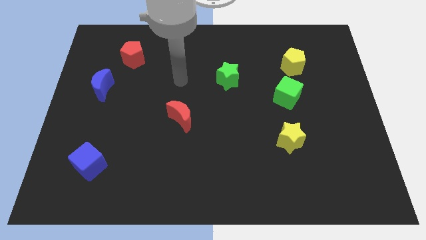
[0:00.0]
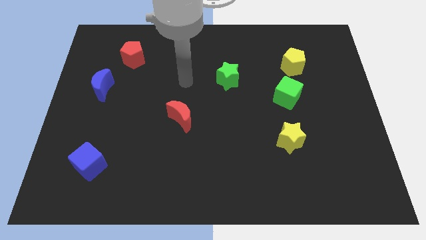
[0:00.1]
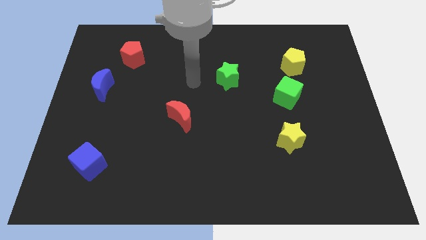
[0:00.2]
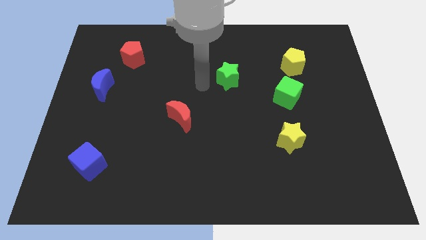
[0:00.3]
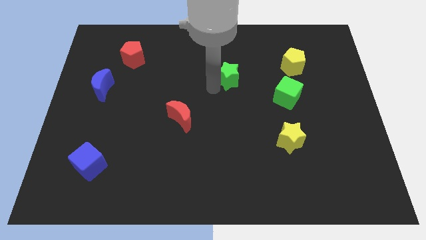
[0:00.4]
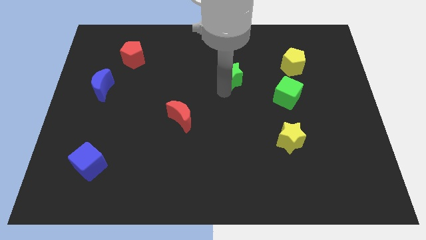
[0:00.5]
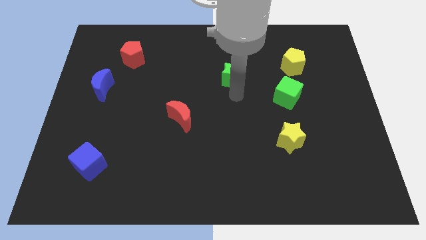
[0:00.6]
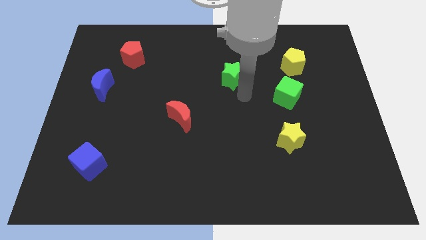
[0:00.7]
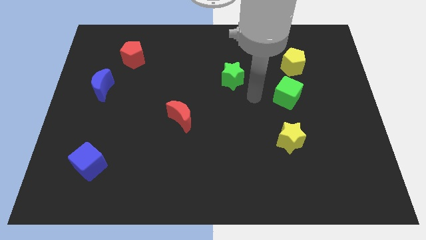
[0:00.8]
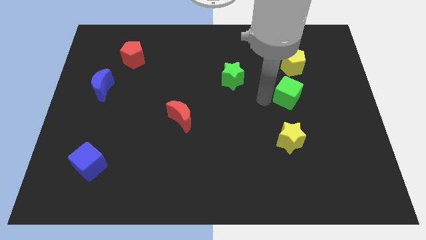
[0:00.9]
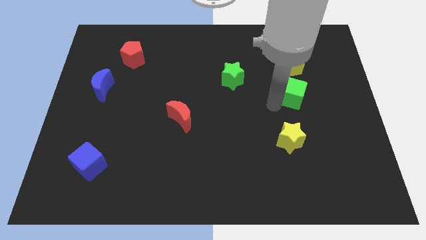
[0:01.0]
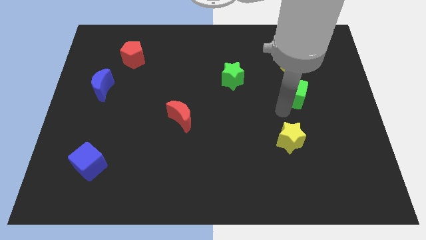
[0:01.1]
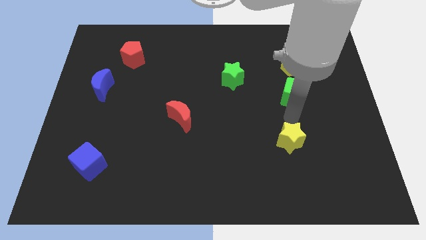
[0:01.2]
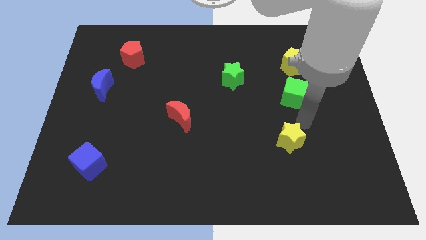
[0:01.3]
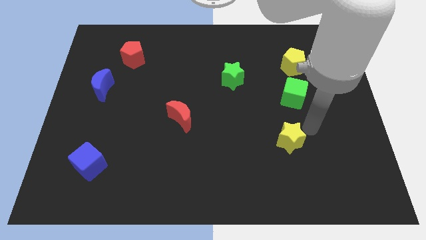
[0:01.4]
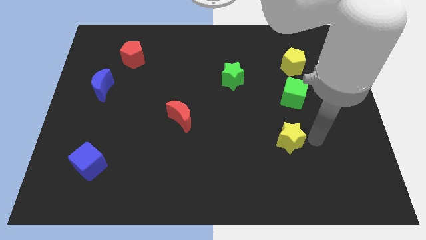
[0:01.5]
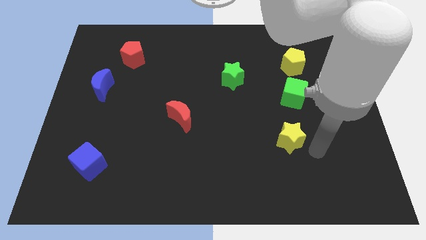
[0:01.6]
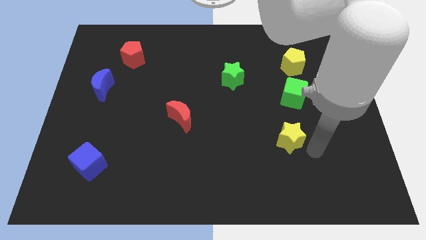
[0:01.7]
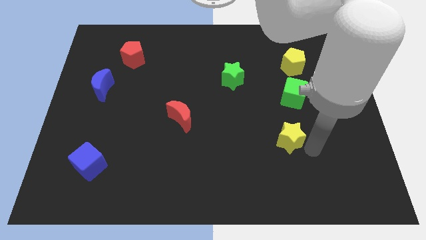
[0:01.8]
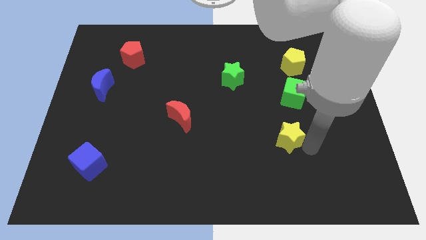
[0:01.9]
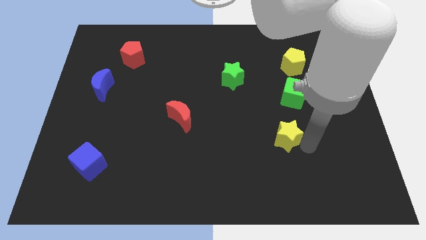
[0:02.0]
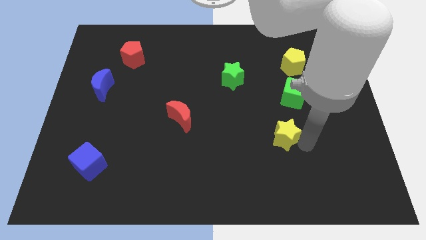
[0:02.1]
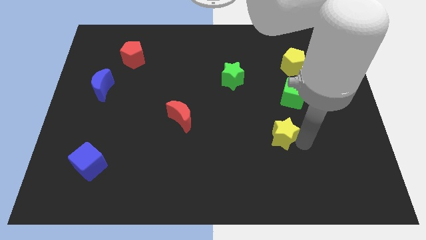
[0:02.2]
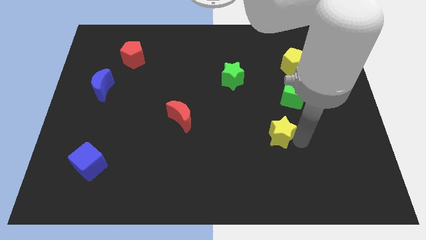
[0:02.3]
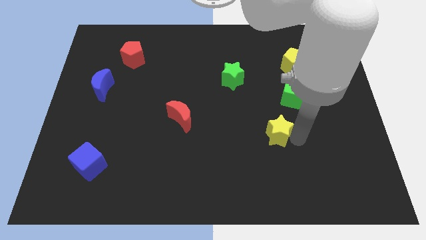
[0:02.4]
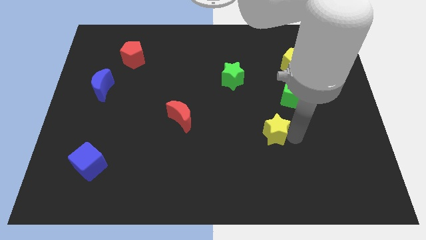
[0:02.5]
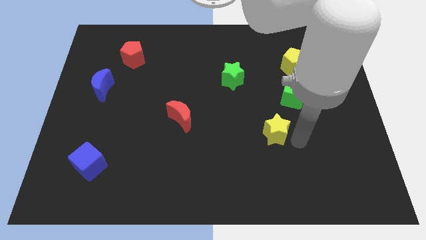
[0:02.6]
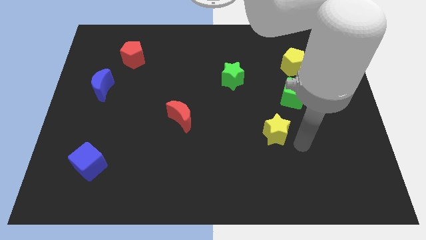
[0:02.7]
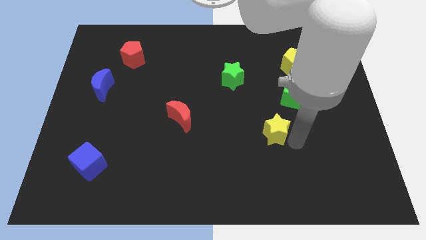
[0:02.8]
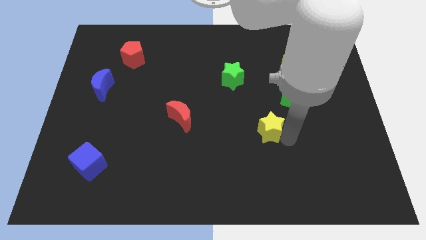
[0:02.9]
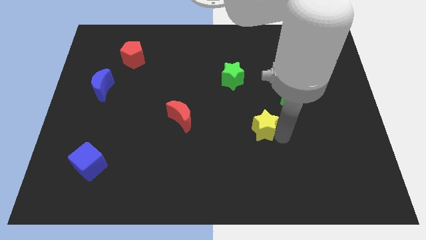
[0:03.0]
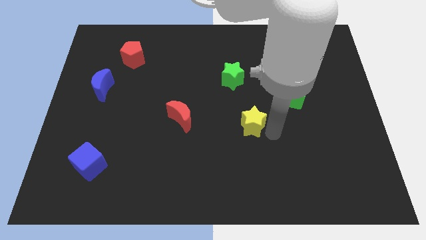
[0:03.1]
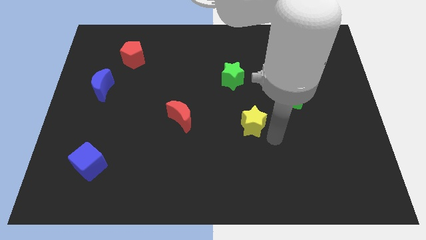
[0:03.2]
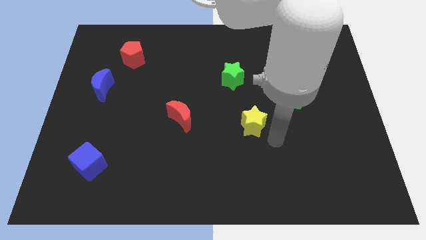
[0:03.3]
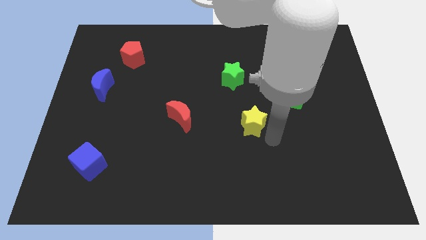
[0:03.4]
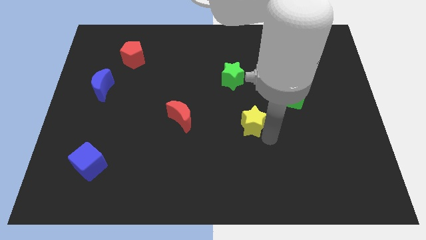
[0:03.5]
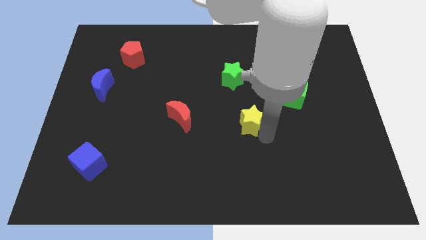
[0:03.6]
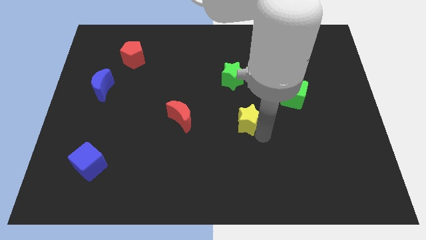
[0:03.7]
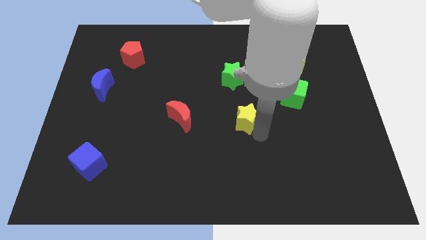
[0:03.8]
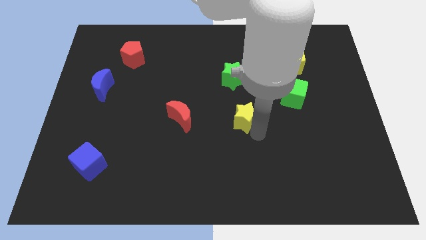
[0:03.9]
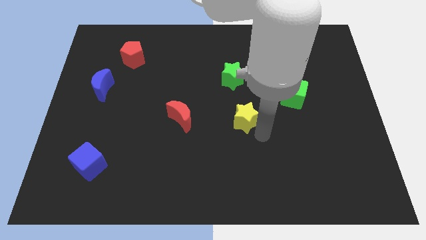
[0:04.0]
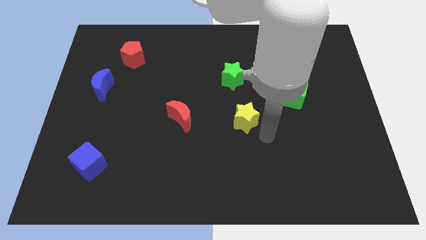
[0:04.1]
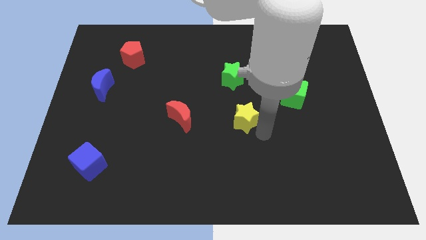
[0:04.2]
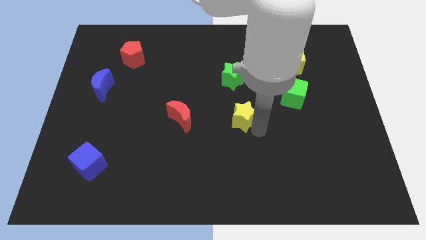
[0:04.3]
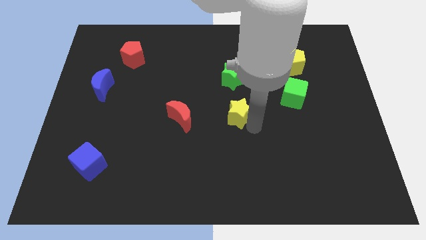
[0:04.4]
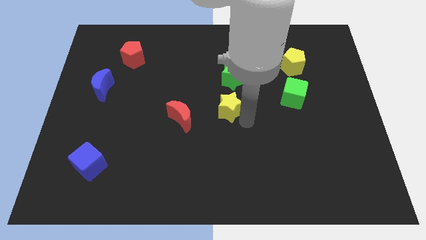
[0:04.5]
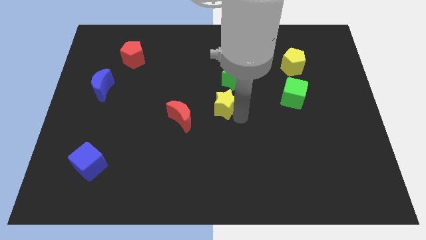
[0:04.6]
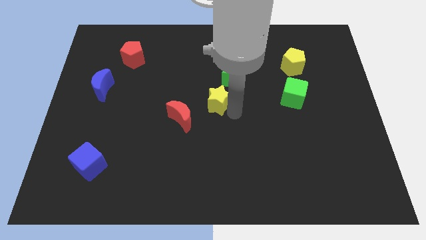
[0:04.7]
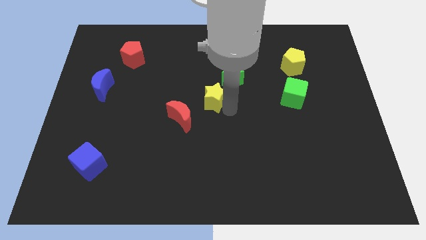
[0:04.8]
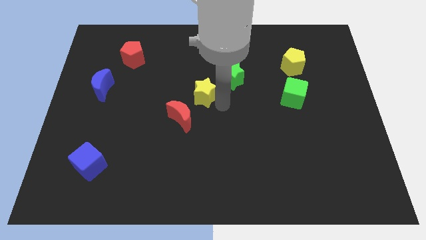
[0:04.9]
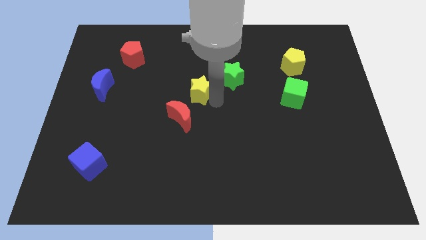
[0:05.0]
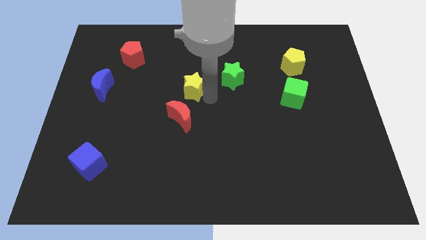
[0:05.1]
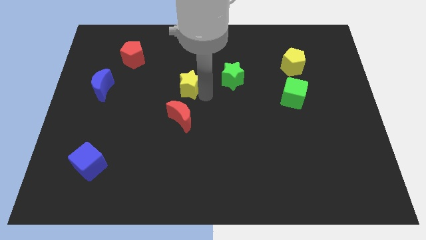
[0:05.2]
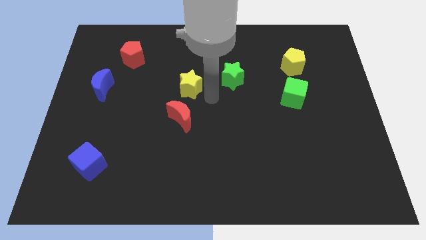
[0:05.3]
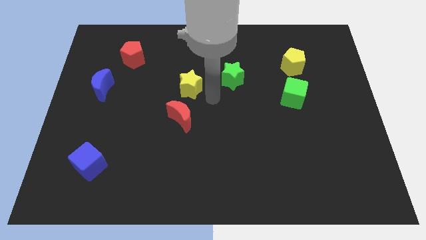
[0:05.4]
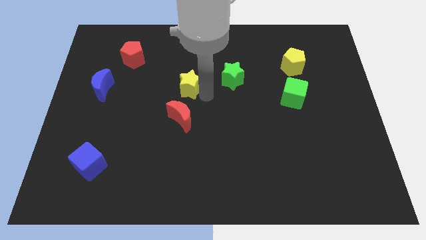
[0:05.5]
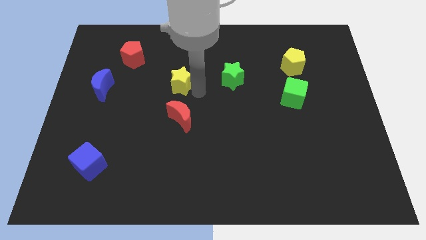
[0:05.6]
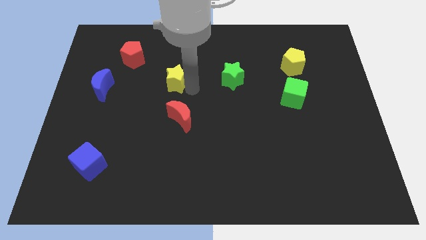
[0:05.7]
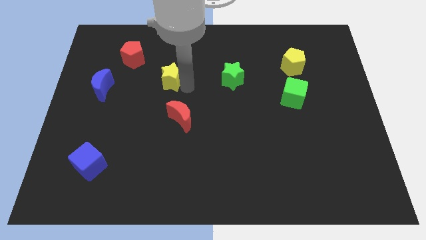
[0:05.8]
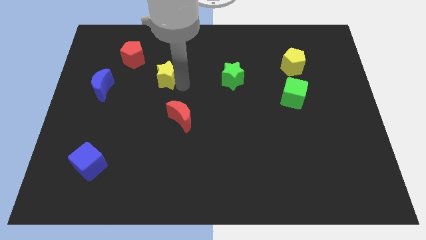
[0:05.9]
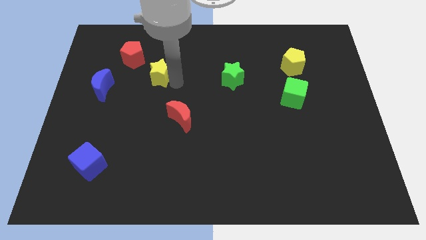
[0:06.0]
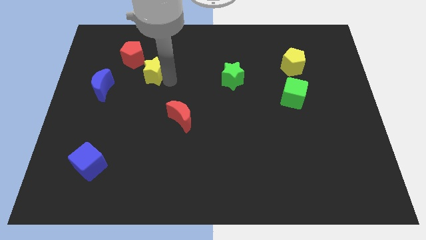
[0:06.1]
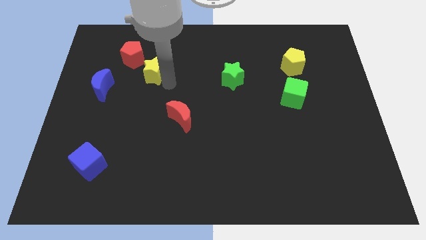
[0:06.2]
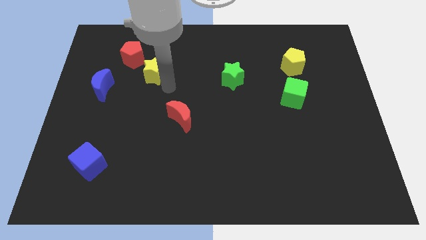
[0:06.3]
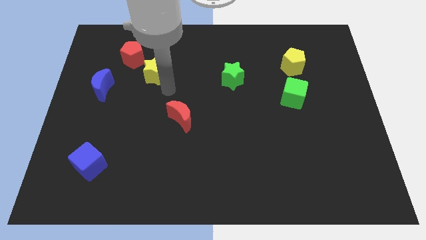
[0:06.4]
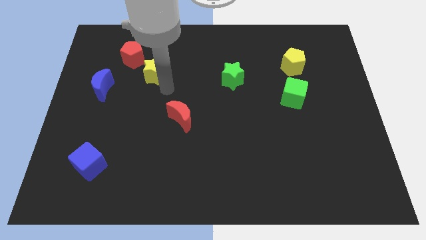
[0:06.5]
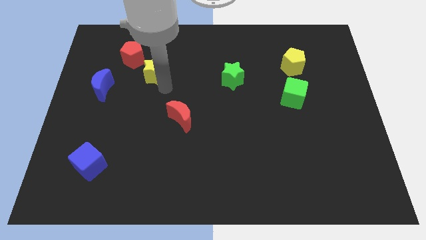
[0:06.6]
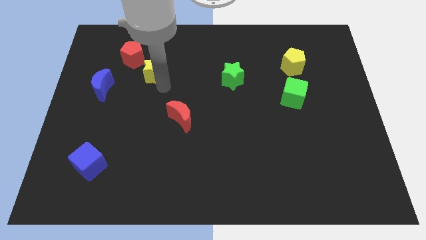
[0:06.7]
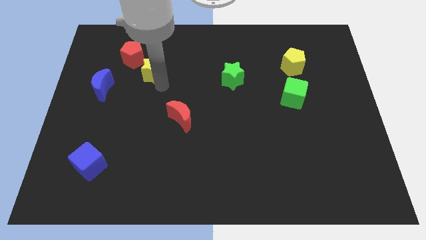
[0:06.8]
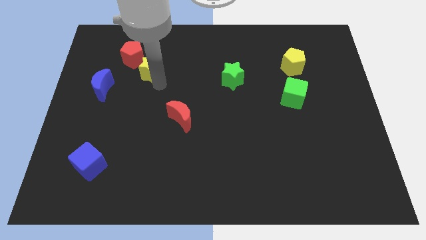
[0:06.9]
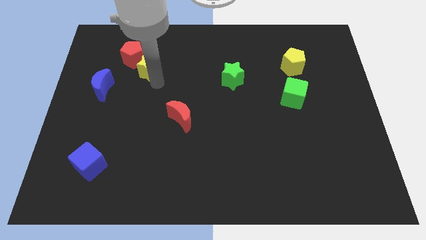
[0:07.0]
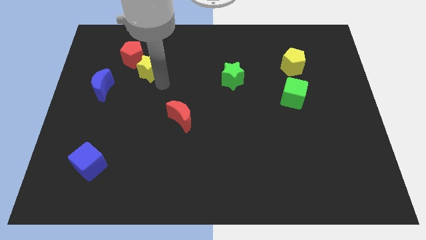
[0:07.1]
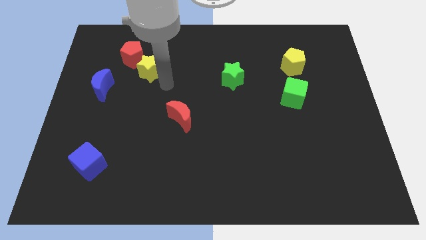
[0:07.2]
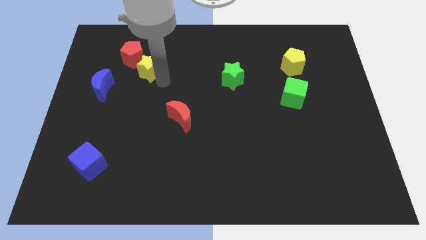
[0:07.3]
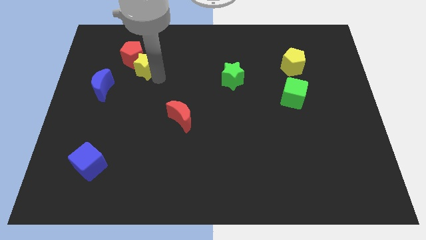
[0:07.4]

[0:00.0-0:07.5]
slide the yellow star close to the red pentagon
